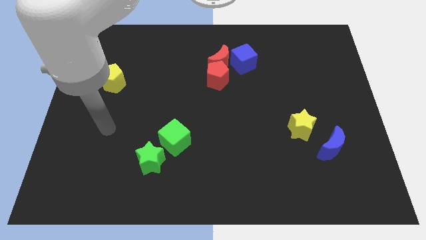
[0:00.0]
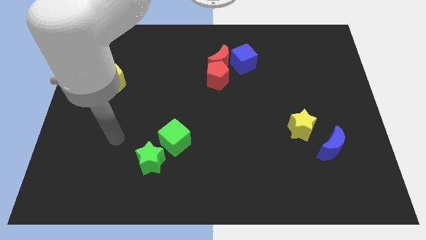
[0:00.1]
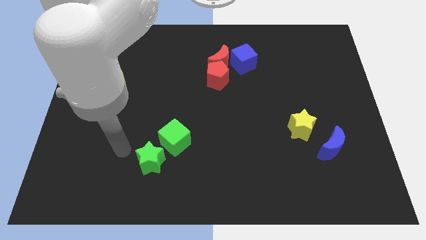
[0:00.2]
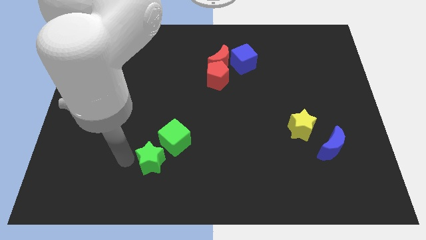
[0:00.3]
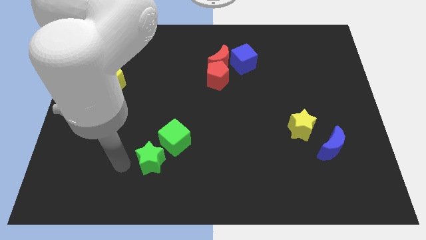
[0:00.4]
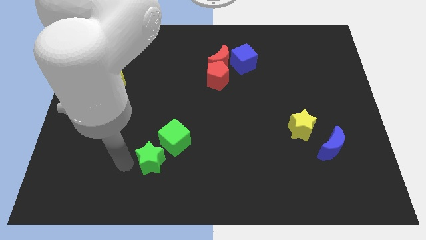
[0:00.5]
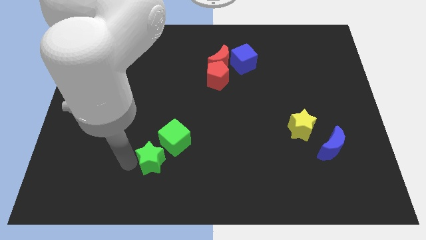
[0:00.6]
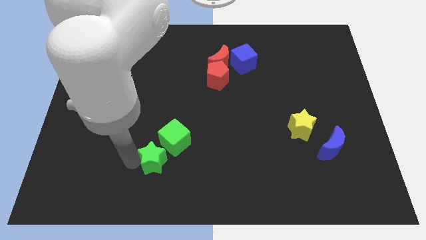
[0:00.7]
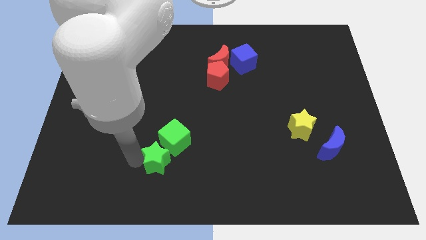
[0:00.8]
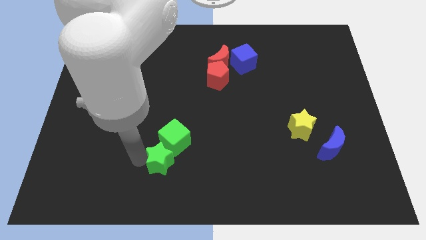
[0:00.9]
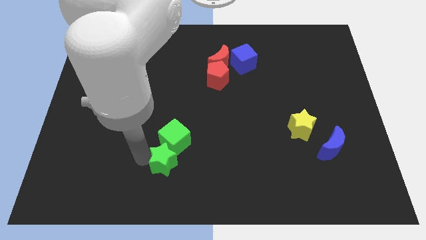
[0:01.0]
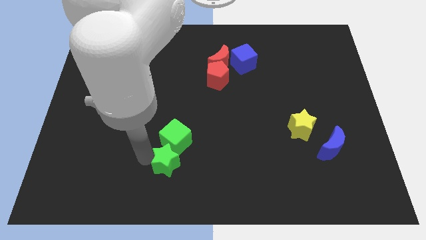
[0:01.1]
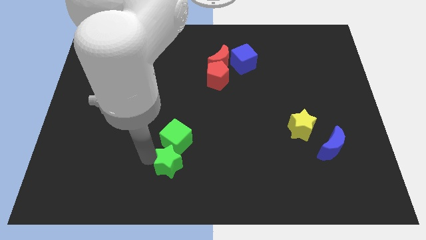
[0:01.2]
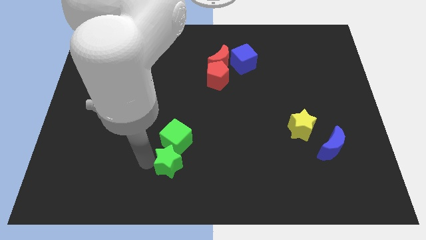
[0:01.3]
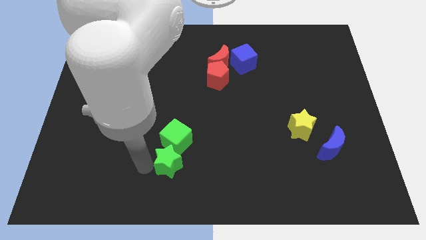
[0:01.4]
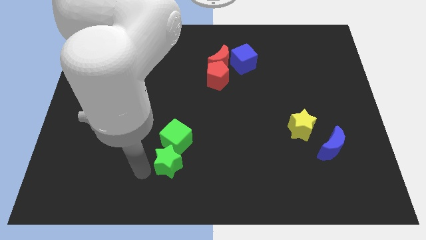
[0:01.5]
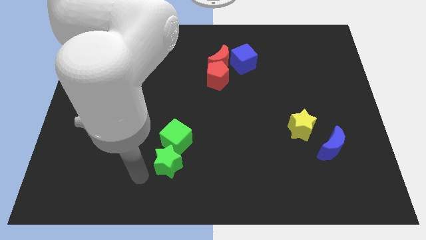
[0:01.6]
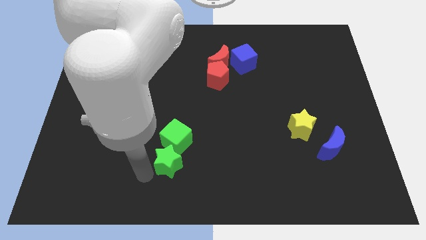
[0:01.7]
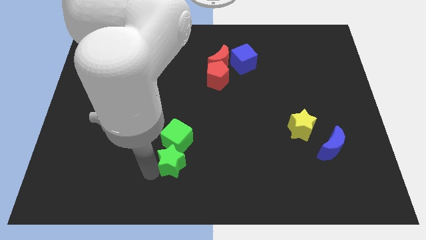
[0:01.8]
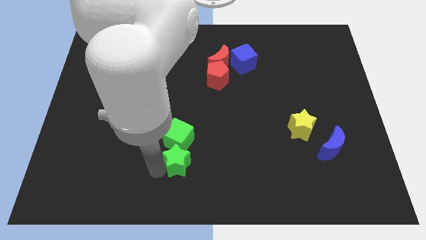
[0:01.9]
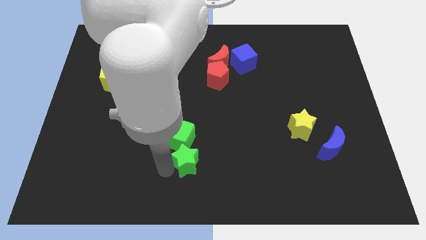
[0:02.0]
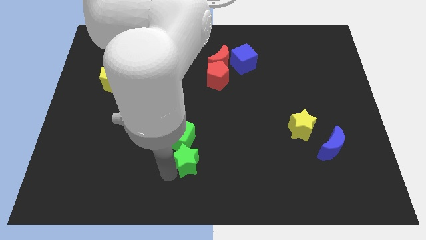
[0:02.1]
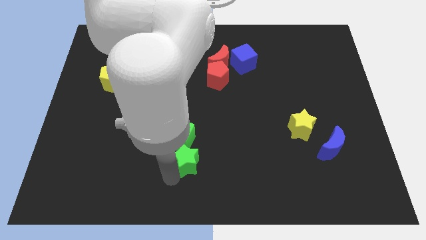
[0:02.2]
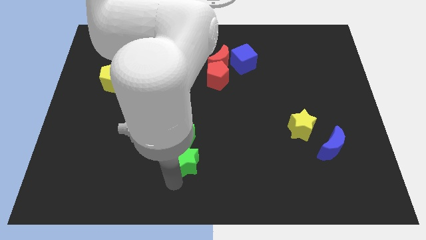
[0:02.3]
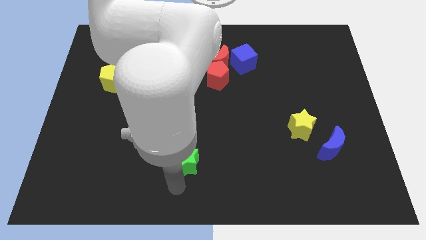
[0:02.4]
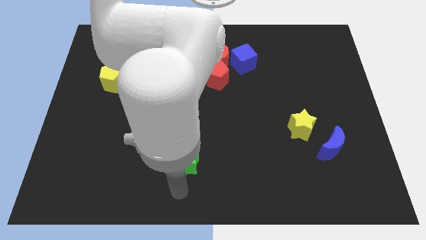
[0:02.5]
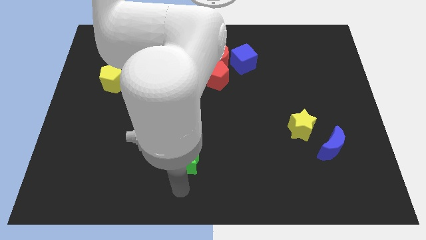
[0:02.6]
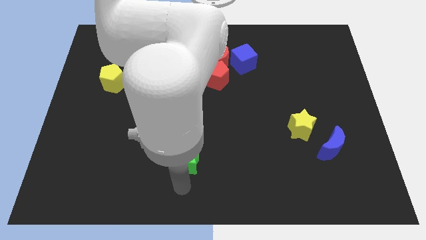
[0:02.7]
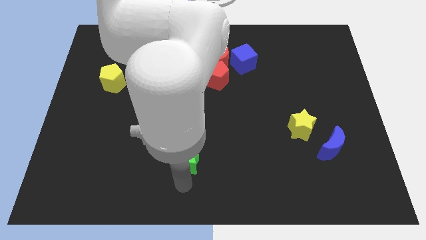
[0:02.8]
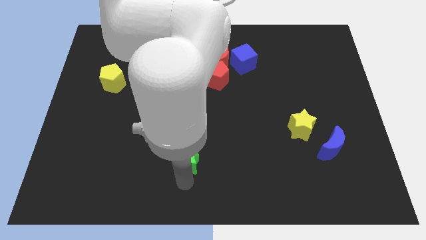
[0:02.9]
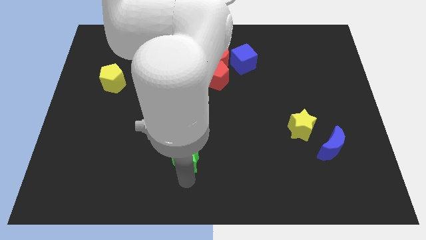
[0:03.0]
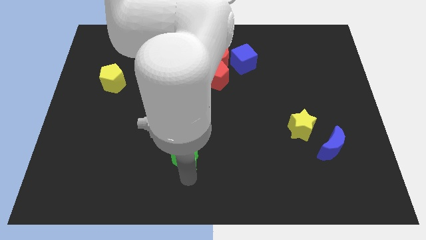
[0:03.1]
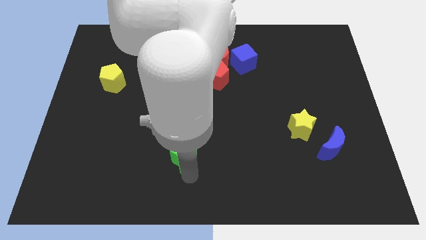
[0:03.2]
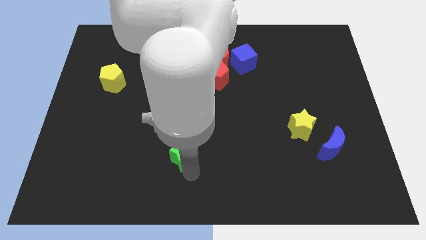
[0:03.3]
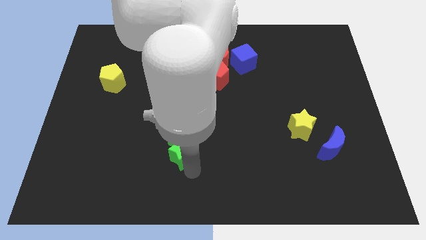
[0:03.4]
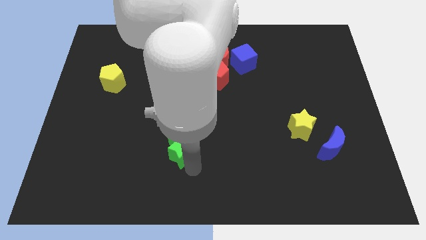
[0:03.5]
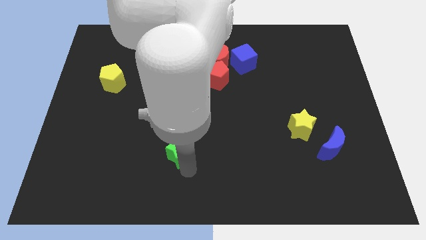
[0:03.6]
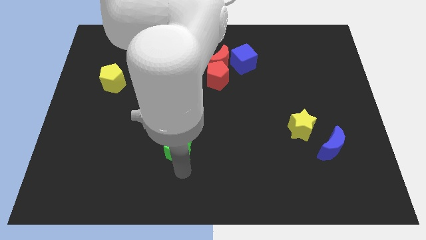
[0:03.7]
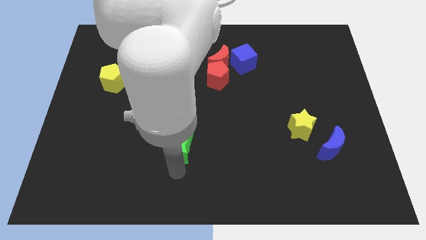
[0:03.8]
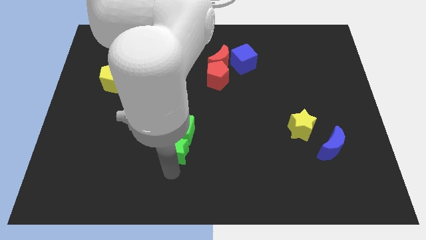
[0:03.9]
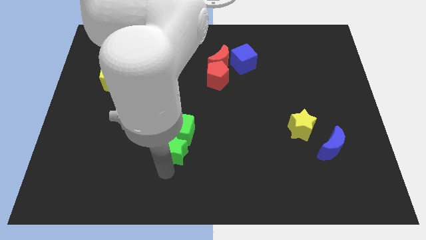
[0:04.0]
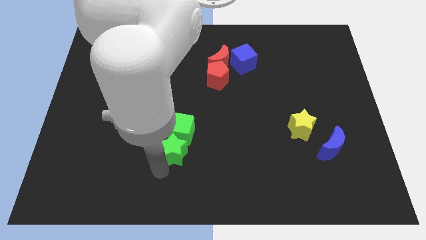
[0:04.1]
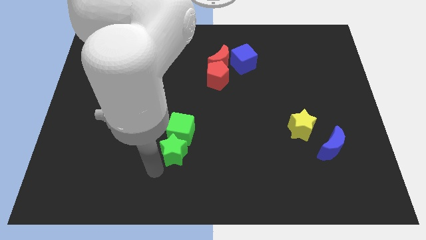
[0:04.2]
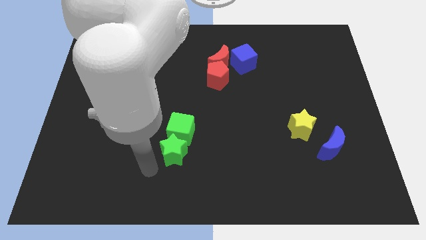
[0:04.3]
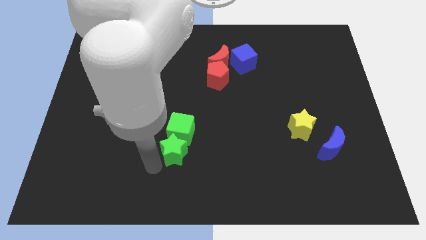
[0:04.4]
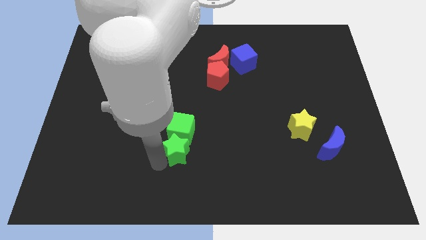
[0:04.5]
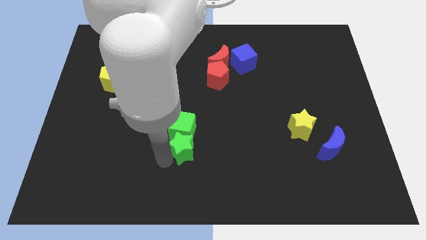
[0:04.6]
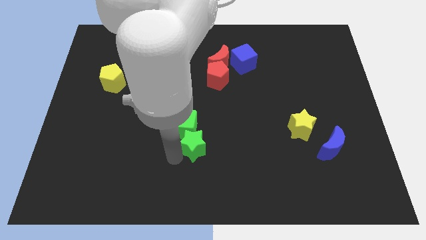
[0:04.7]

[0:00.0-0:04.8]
slightly move the green star up and right diagonally

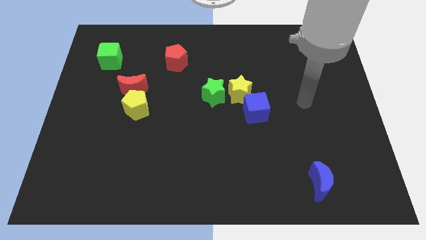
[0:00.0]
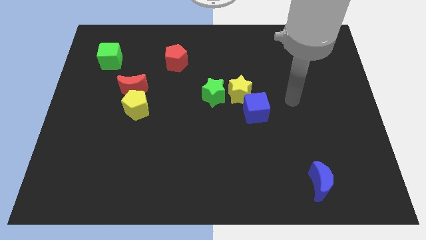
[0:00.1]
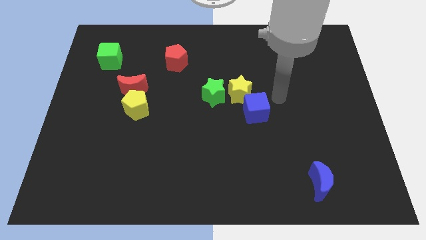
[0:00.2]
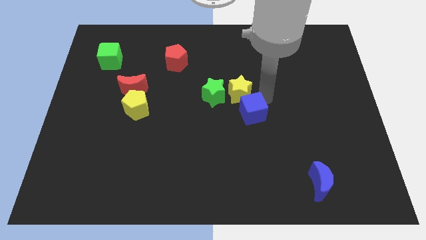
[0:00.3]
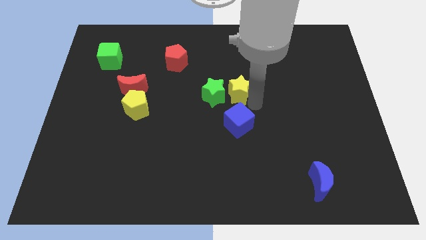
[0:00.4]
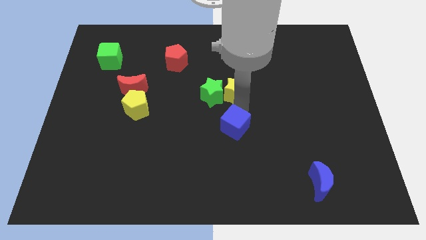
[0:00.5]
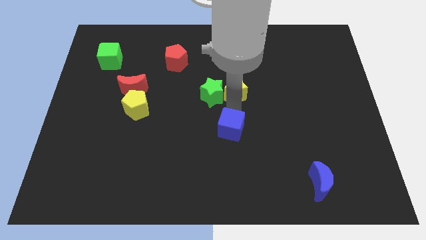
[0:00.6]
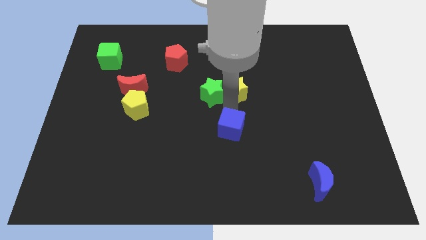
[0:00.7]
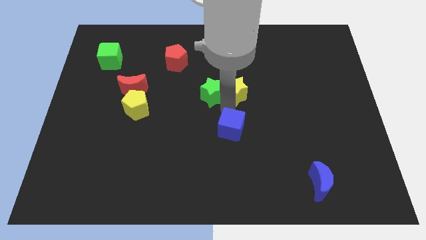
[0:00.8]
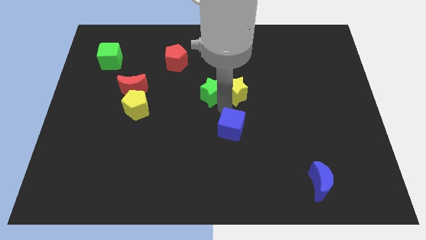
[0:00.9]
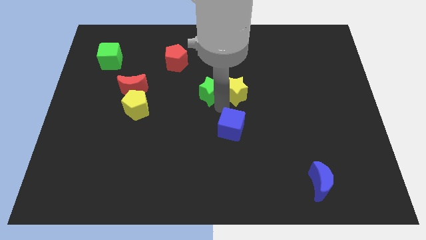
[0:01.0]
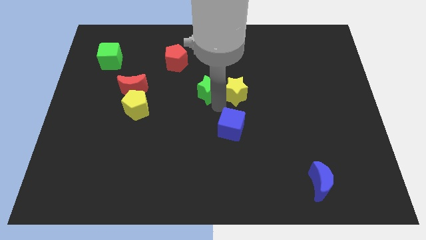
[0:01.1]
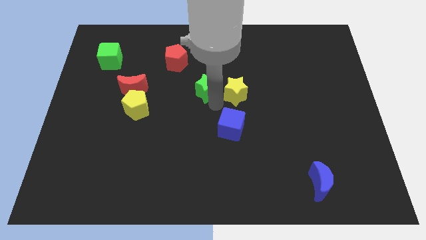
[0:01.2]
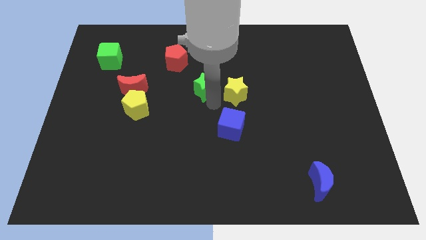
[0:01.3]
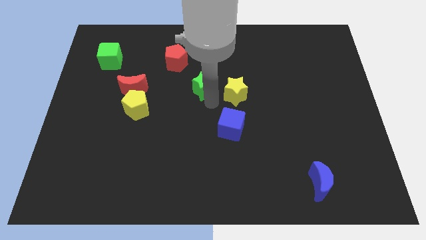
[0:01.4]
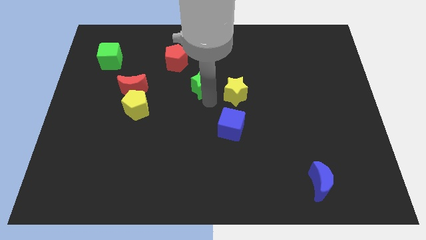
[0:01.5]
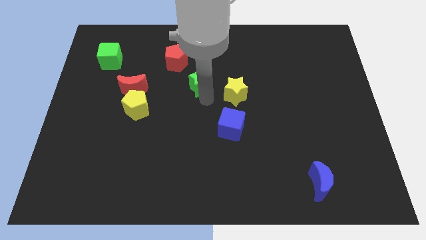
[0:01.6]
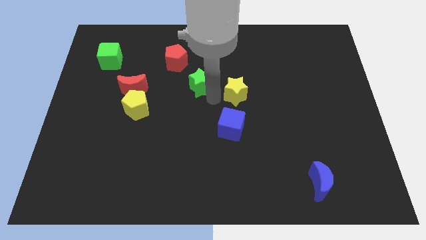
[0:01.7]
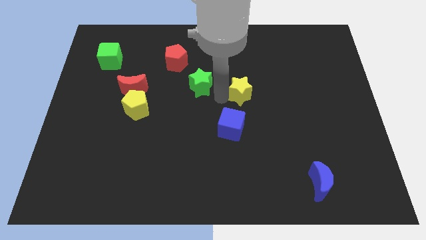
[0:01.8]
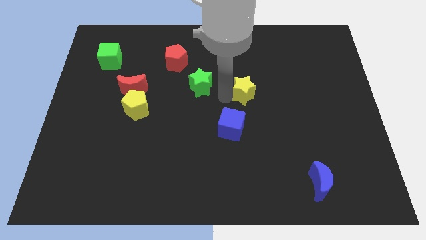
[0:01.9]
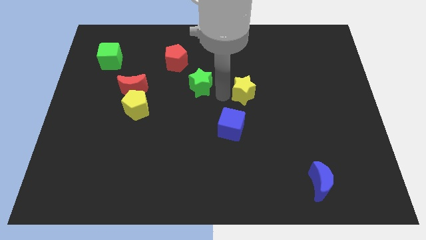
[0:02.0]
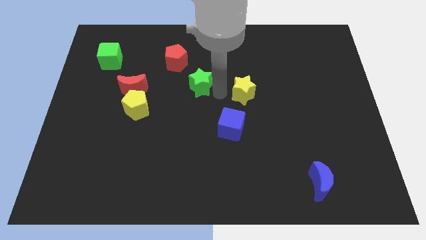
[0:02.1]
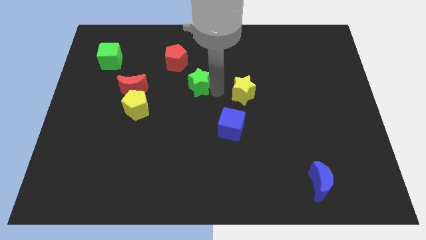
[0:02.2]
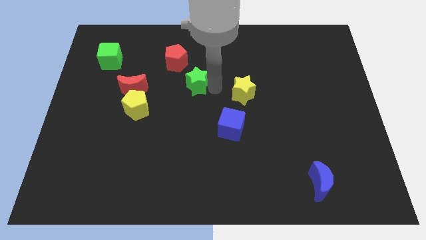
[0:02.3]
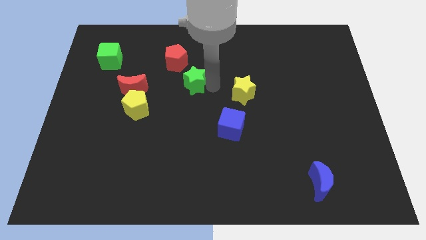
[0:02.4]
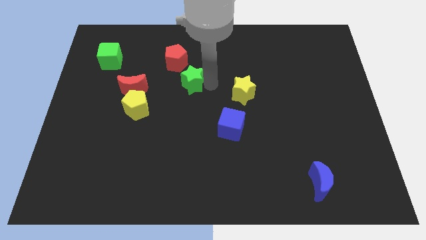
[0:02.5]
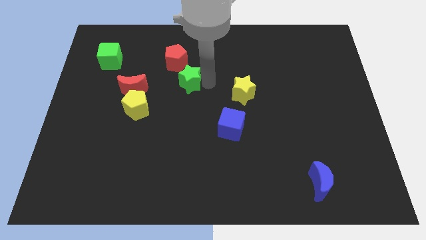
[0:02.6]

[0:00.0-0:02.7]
slide the green star a little upwards and then to the left

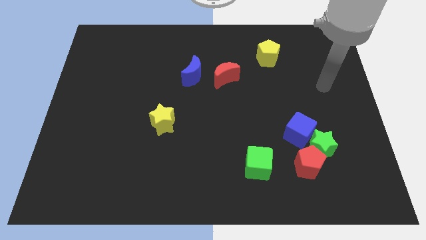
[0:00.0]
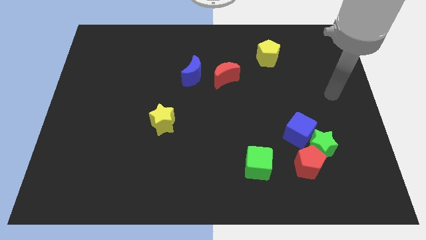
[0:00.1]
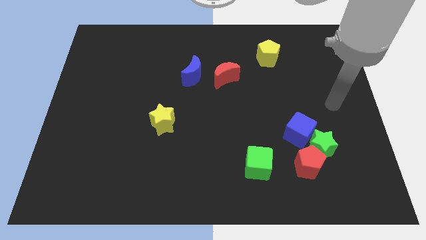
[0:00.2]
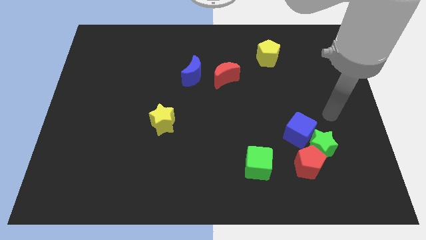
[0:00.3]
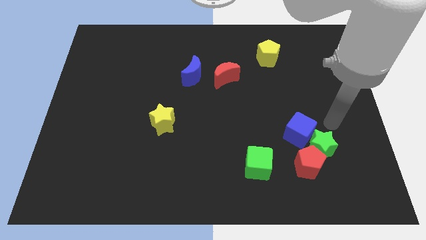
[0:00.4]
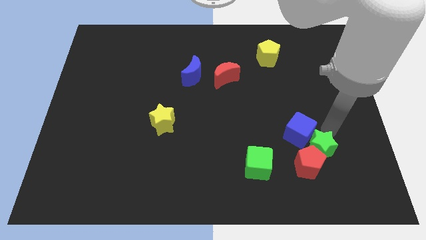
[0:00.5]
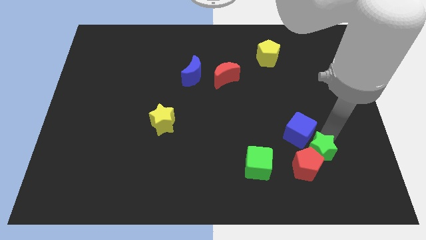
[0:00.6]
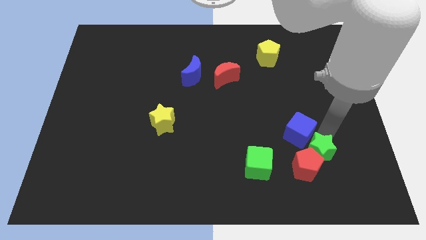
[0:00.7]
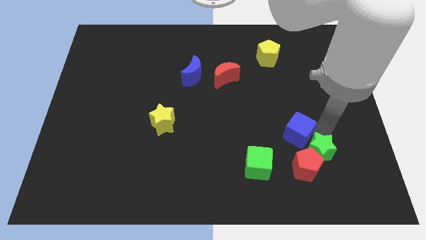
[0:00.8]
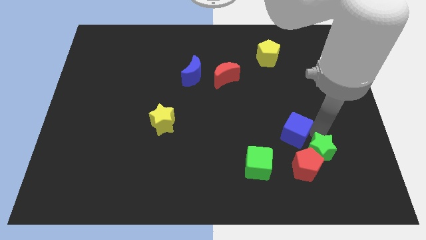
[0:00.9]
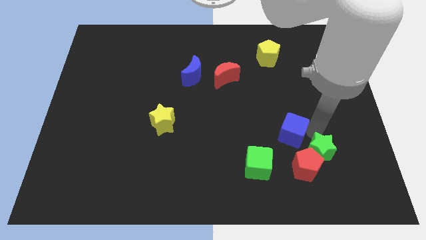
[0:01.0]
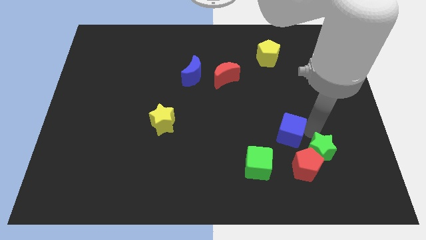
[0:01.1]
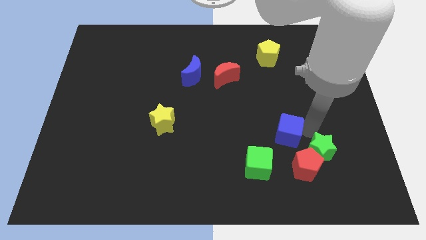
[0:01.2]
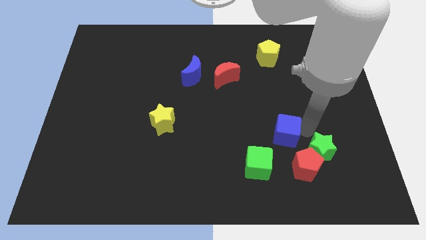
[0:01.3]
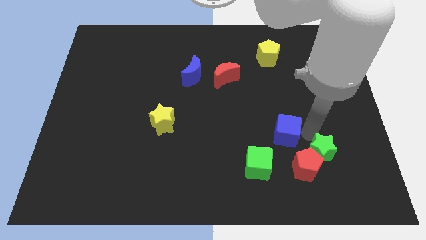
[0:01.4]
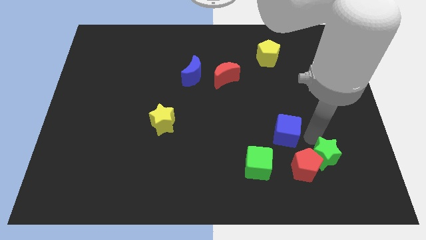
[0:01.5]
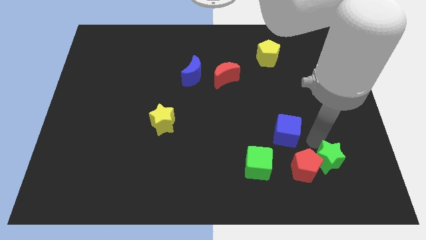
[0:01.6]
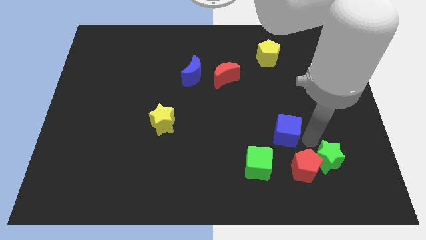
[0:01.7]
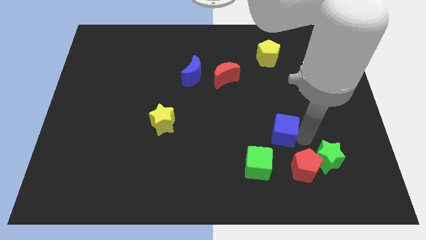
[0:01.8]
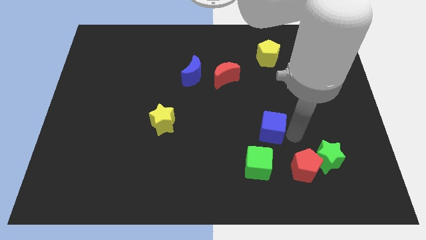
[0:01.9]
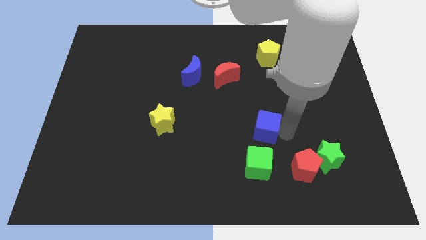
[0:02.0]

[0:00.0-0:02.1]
slightly slide the blue cube left
